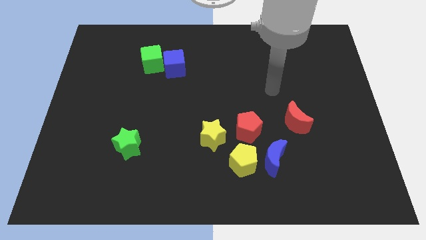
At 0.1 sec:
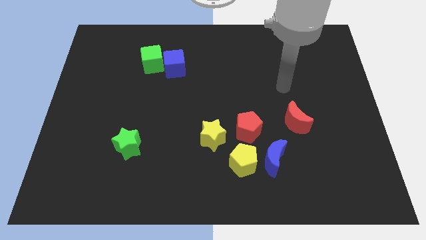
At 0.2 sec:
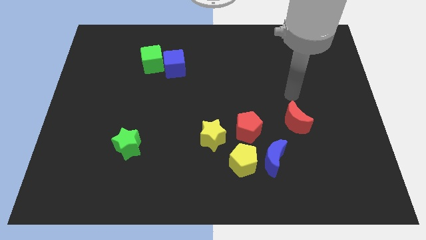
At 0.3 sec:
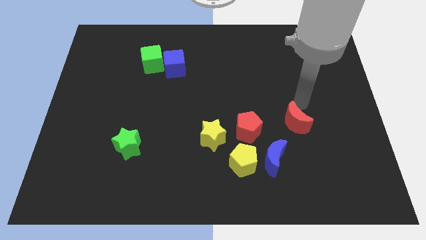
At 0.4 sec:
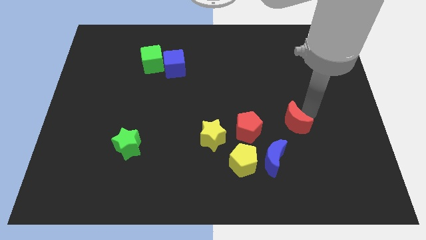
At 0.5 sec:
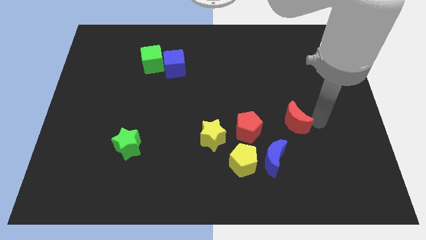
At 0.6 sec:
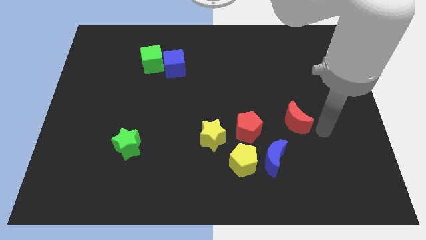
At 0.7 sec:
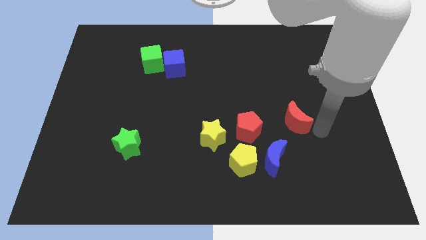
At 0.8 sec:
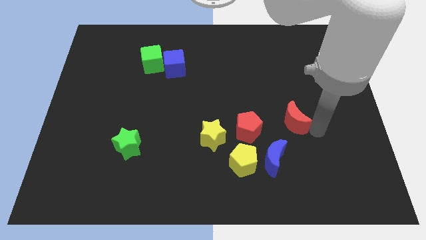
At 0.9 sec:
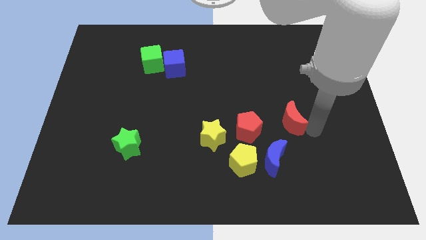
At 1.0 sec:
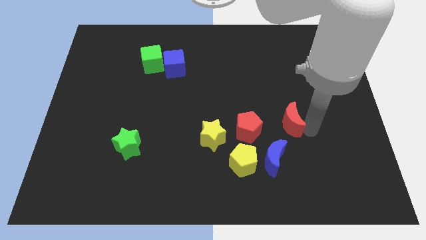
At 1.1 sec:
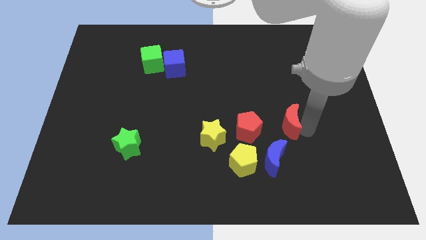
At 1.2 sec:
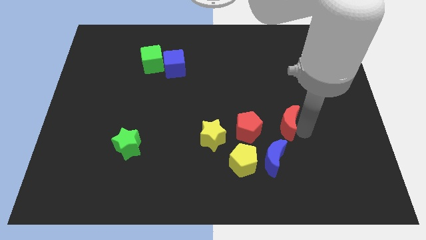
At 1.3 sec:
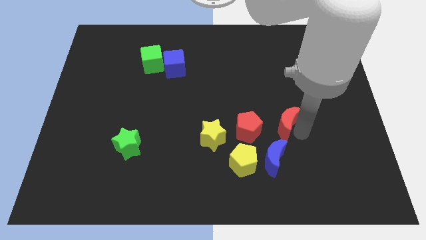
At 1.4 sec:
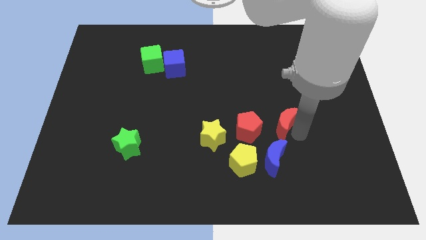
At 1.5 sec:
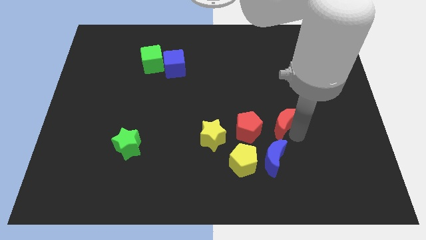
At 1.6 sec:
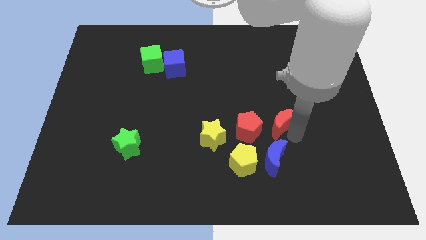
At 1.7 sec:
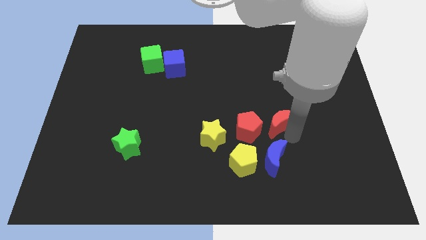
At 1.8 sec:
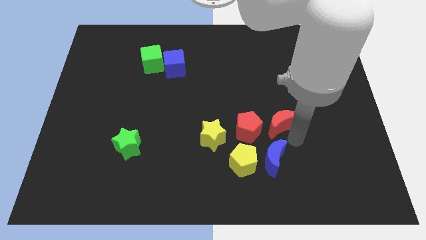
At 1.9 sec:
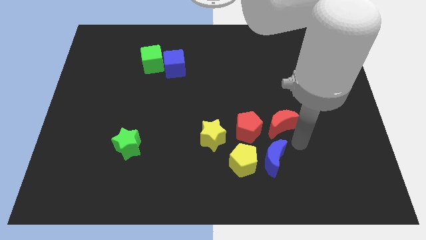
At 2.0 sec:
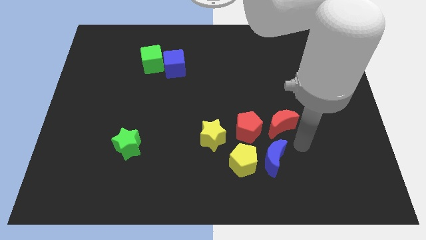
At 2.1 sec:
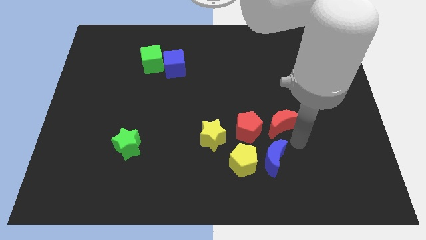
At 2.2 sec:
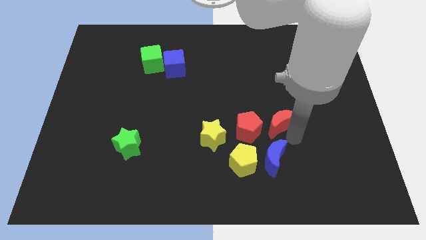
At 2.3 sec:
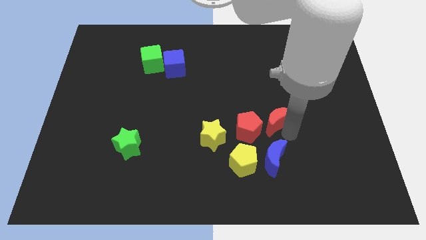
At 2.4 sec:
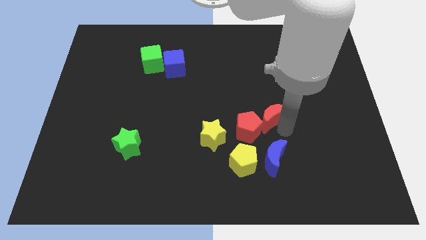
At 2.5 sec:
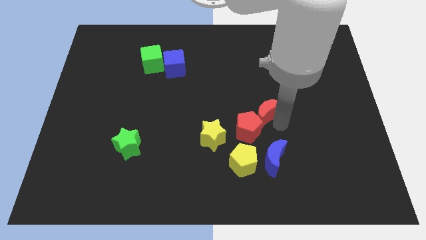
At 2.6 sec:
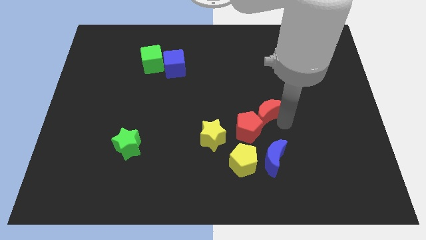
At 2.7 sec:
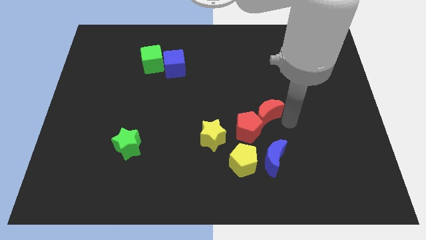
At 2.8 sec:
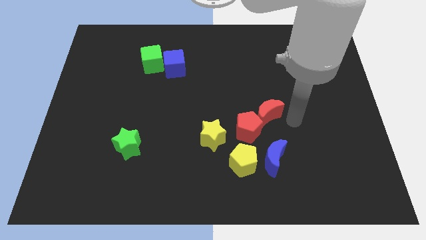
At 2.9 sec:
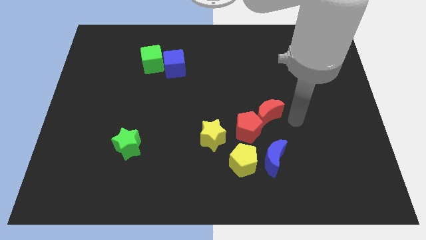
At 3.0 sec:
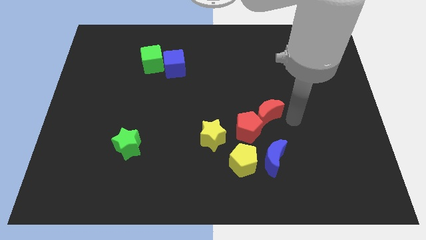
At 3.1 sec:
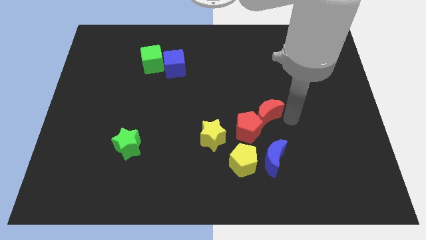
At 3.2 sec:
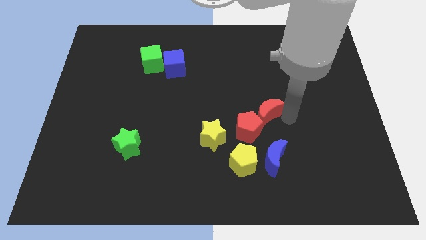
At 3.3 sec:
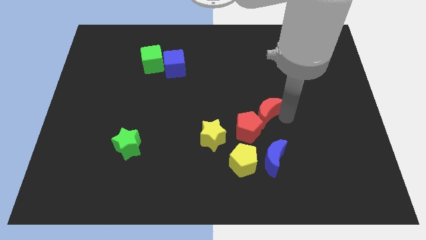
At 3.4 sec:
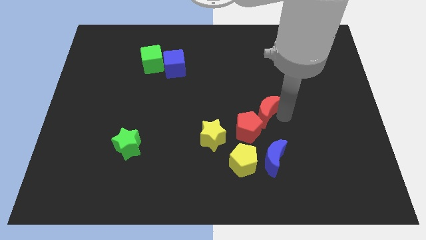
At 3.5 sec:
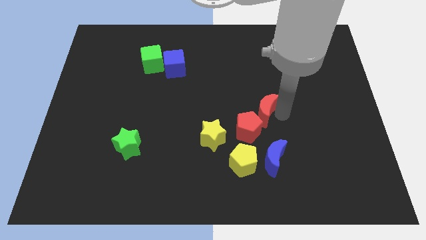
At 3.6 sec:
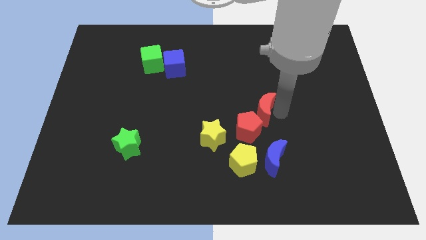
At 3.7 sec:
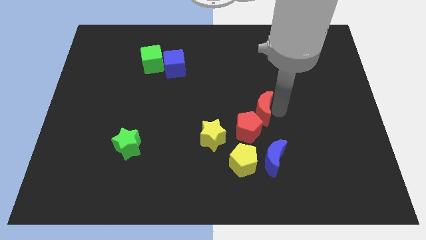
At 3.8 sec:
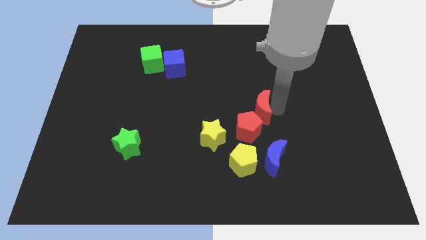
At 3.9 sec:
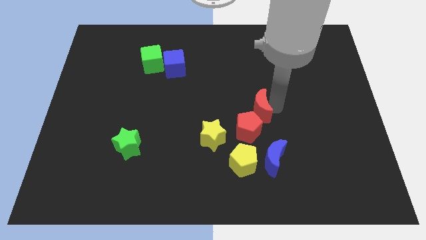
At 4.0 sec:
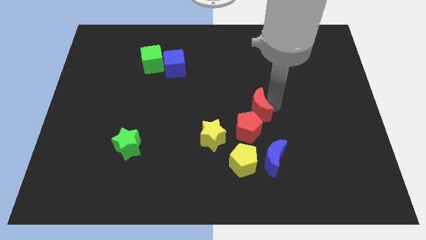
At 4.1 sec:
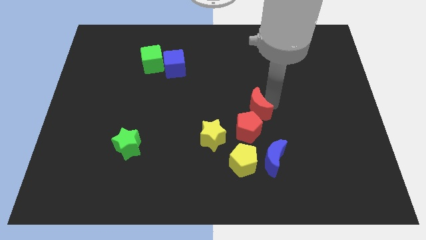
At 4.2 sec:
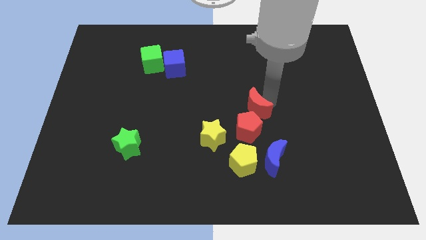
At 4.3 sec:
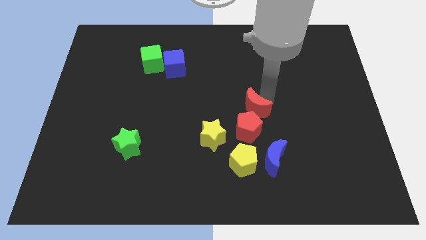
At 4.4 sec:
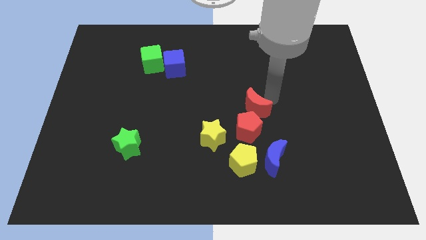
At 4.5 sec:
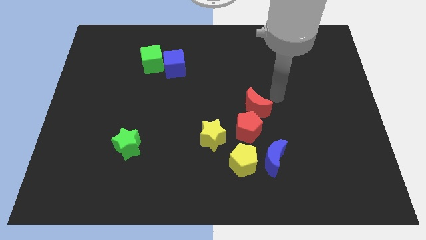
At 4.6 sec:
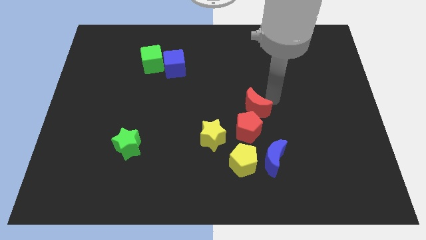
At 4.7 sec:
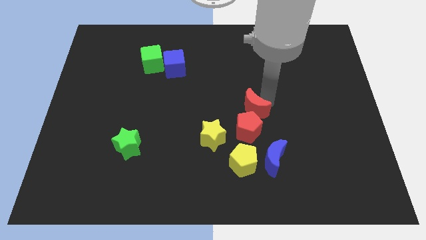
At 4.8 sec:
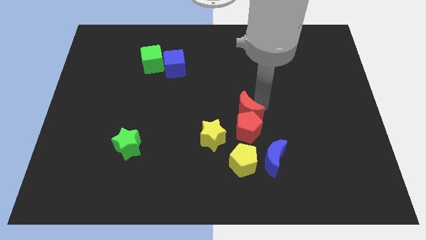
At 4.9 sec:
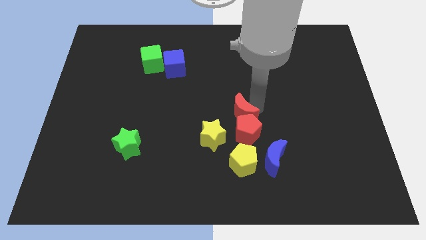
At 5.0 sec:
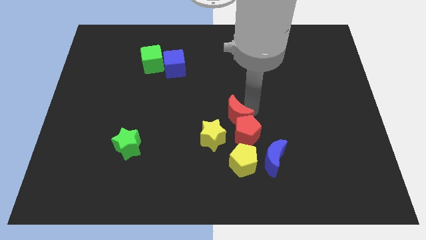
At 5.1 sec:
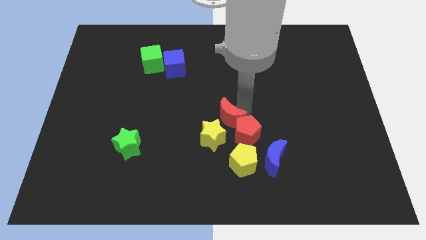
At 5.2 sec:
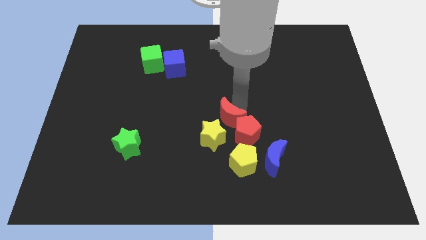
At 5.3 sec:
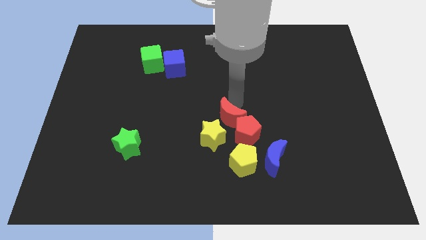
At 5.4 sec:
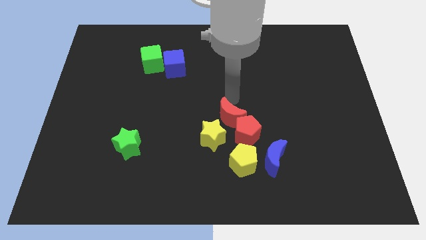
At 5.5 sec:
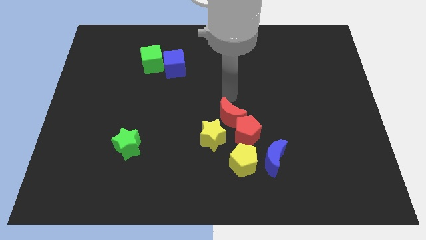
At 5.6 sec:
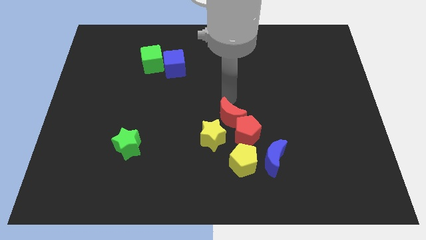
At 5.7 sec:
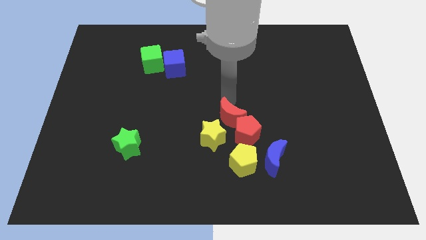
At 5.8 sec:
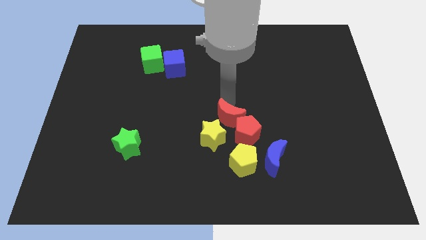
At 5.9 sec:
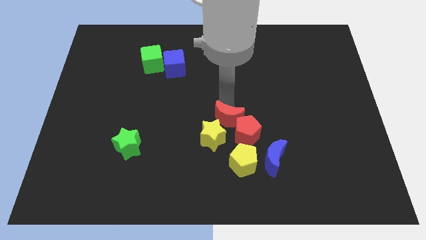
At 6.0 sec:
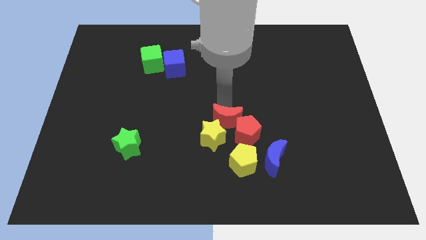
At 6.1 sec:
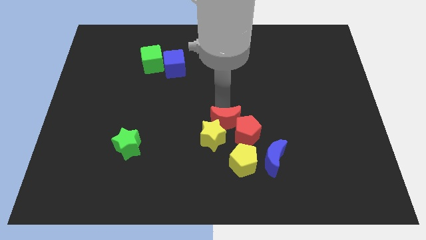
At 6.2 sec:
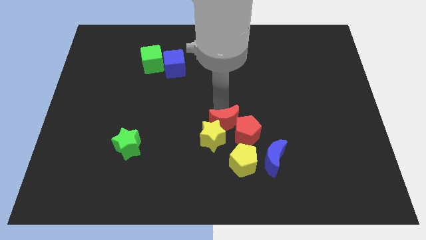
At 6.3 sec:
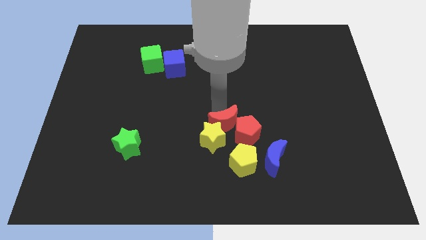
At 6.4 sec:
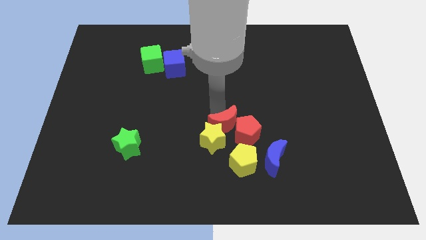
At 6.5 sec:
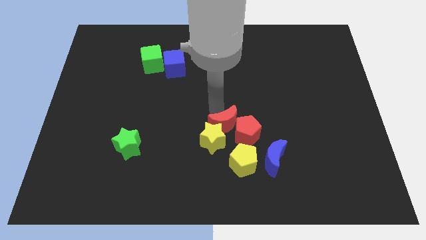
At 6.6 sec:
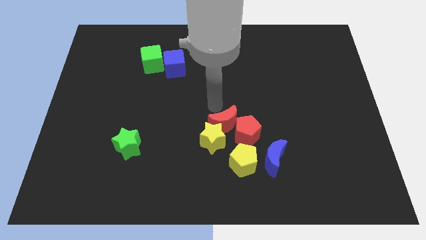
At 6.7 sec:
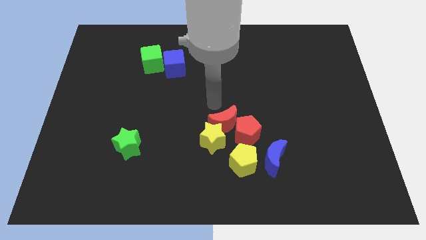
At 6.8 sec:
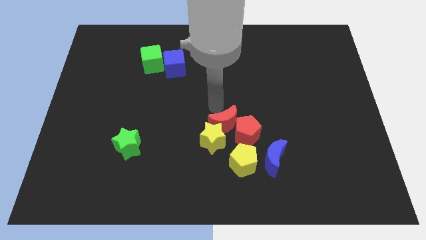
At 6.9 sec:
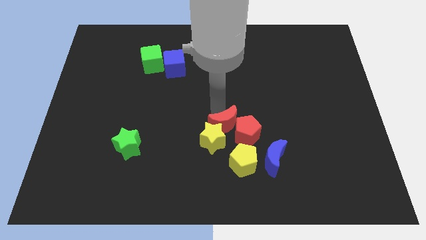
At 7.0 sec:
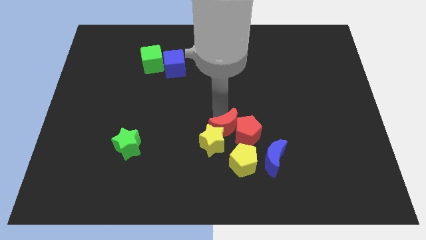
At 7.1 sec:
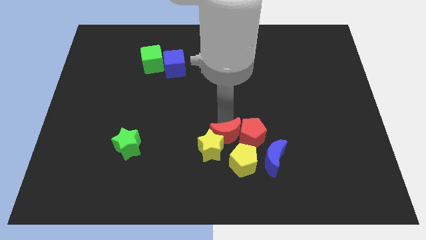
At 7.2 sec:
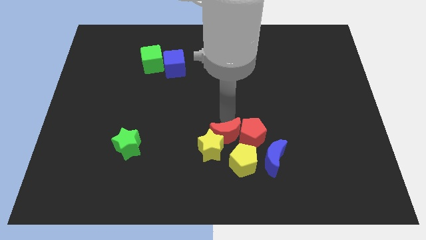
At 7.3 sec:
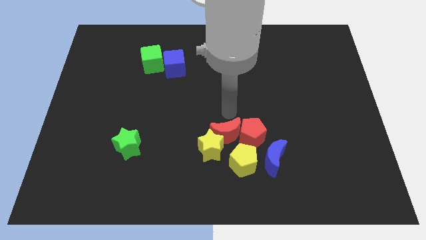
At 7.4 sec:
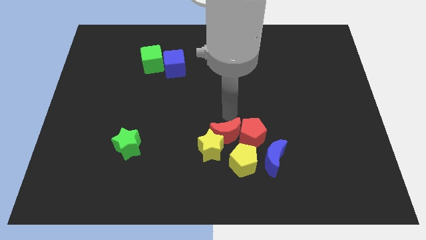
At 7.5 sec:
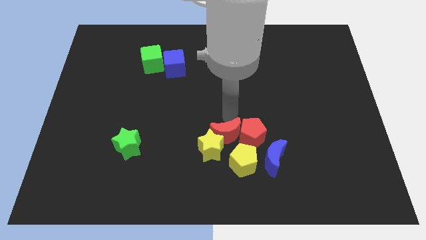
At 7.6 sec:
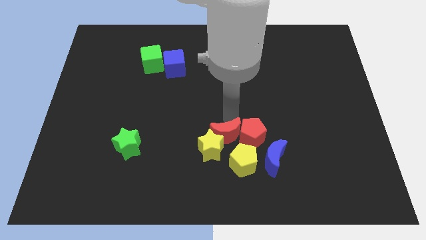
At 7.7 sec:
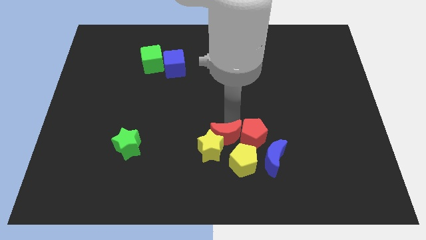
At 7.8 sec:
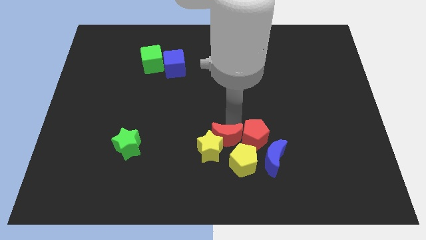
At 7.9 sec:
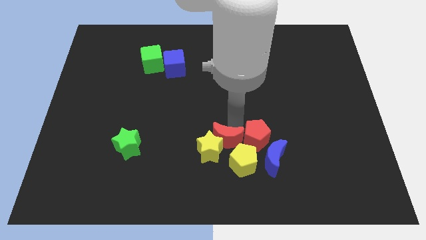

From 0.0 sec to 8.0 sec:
push the red moon left of the blue moon
